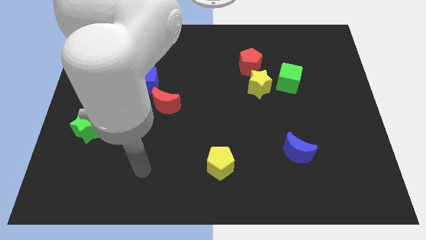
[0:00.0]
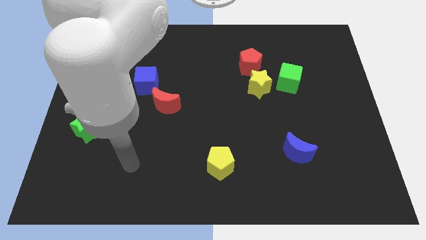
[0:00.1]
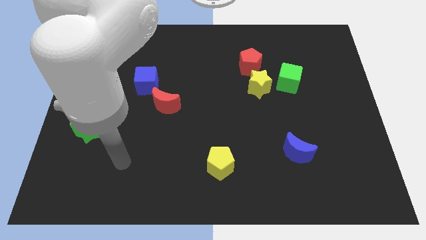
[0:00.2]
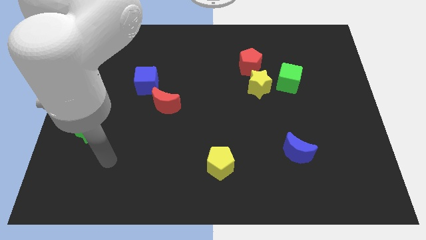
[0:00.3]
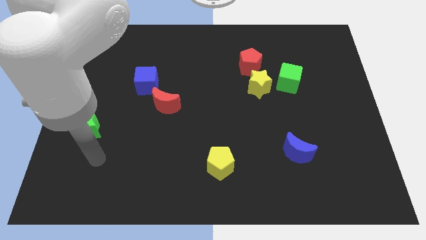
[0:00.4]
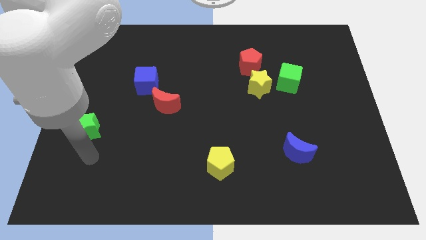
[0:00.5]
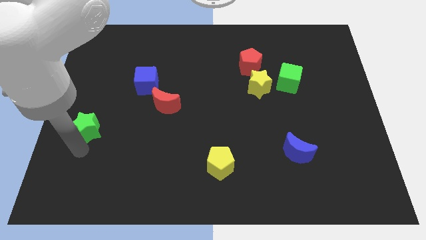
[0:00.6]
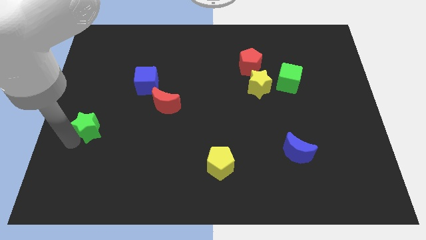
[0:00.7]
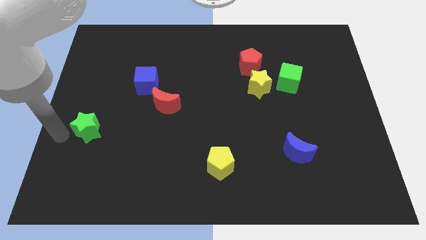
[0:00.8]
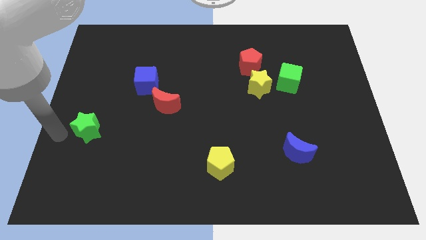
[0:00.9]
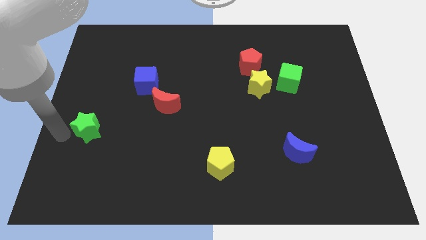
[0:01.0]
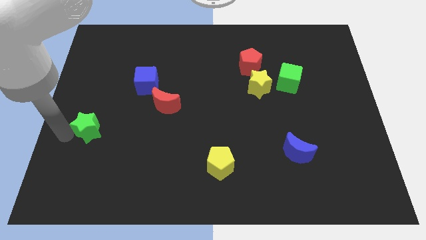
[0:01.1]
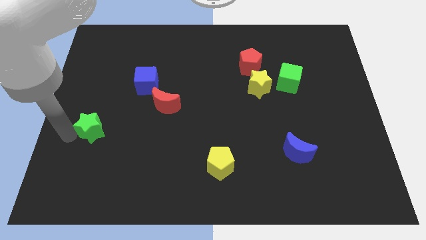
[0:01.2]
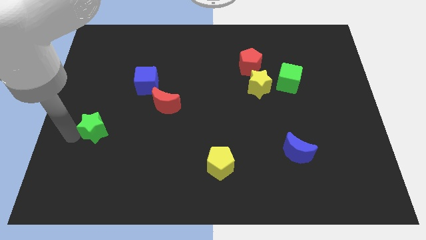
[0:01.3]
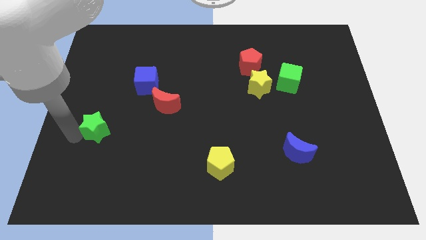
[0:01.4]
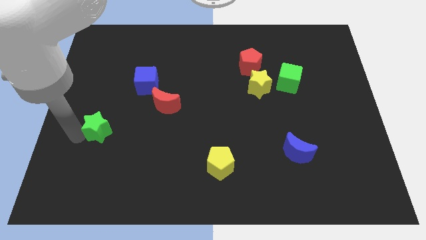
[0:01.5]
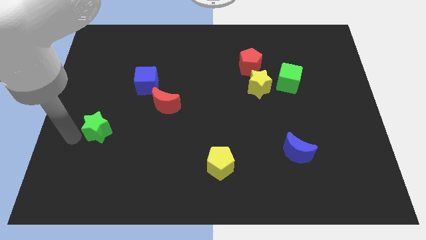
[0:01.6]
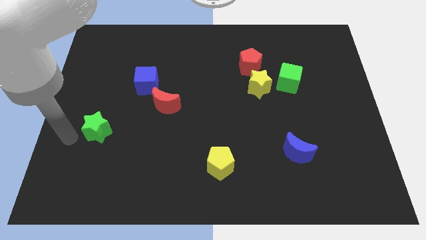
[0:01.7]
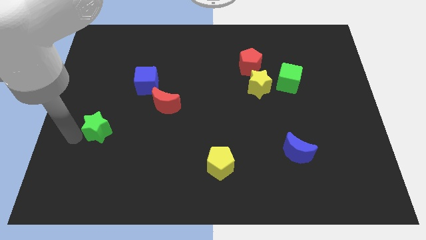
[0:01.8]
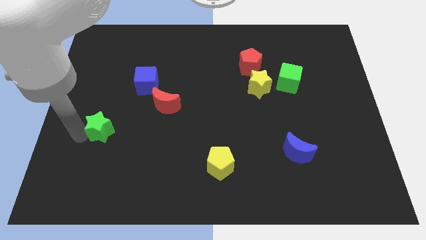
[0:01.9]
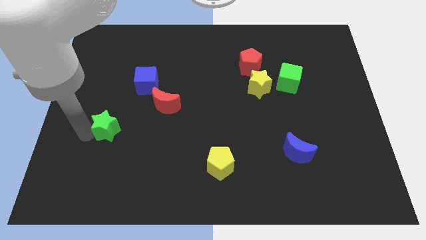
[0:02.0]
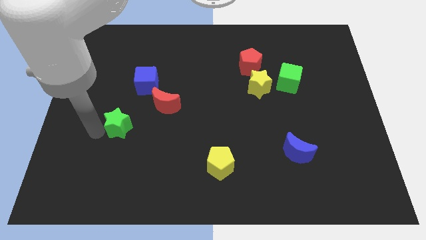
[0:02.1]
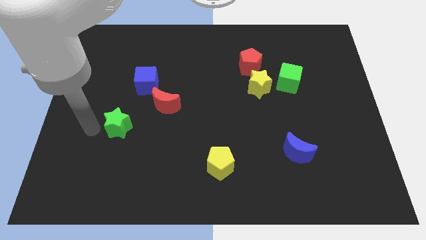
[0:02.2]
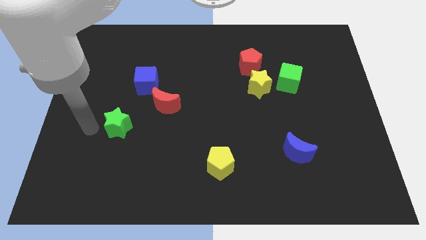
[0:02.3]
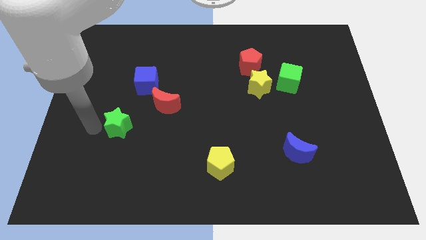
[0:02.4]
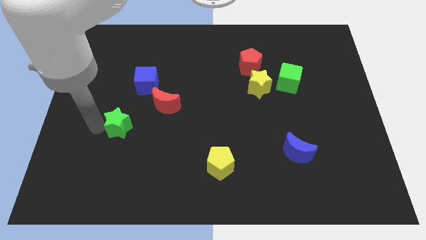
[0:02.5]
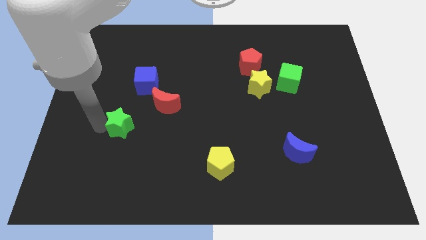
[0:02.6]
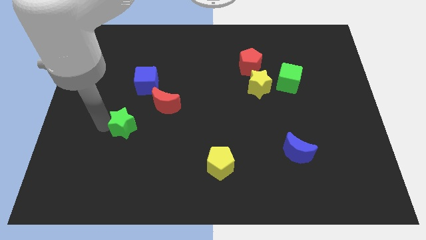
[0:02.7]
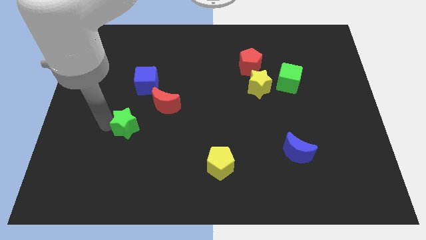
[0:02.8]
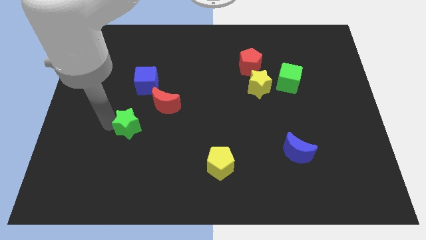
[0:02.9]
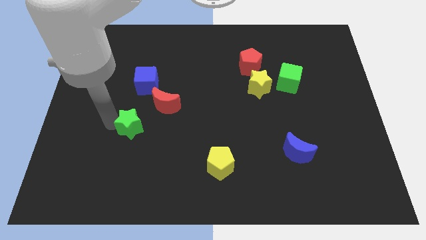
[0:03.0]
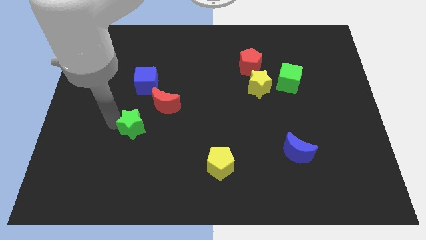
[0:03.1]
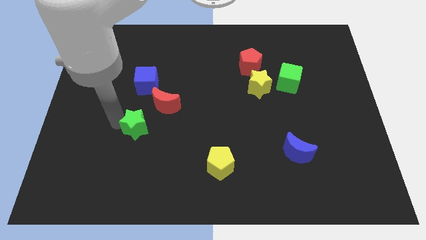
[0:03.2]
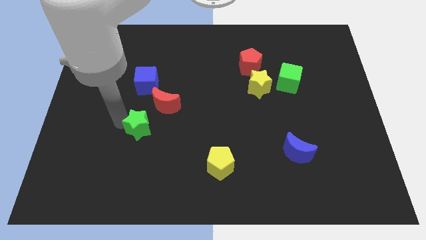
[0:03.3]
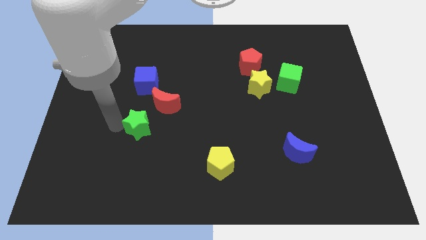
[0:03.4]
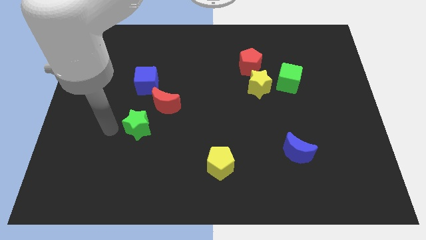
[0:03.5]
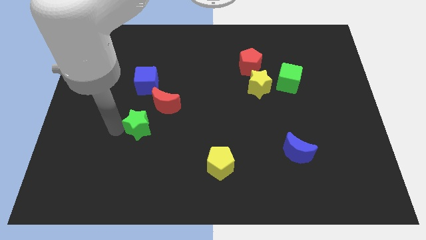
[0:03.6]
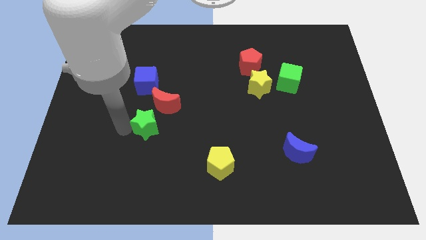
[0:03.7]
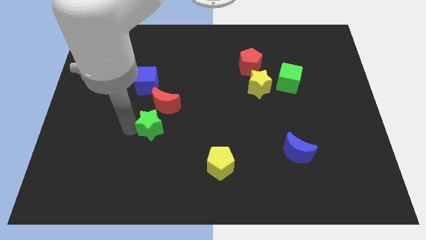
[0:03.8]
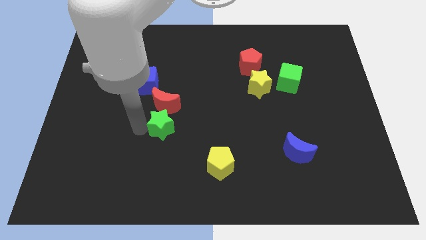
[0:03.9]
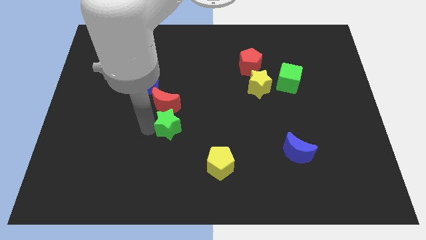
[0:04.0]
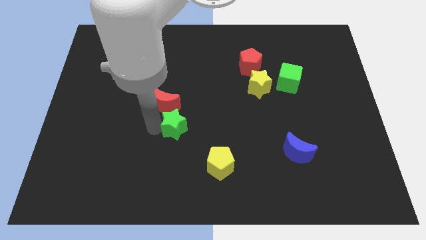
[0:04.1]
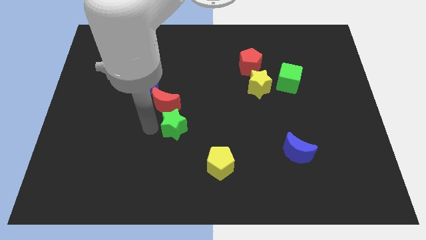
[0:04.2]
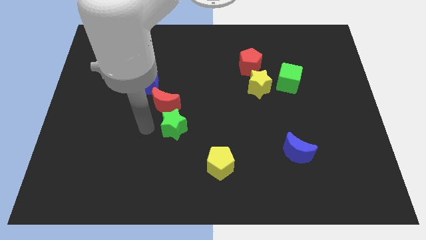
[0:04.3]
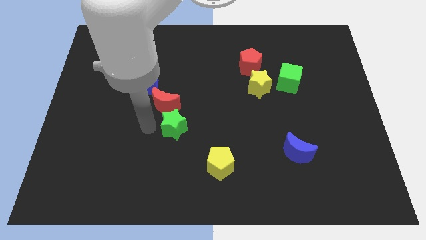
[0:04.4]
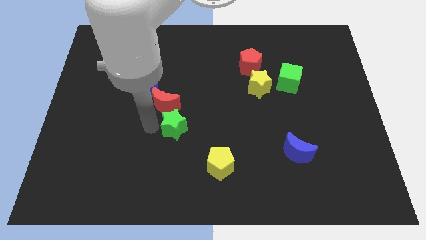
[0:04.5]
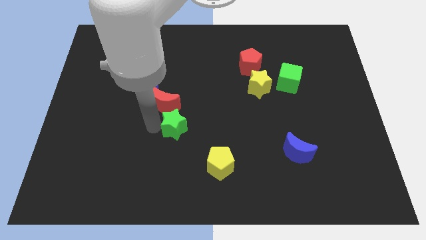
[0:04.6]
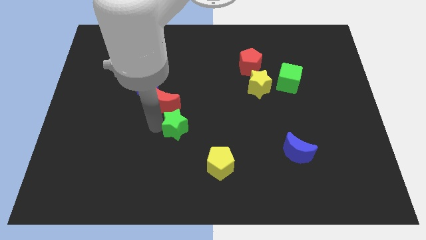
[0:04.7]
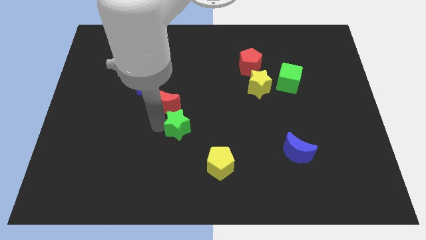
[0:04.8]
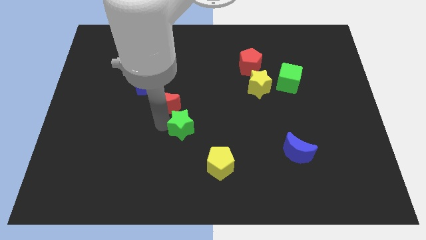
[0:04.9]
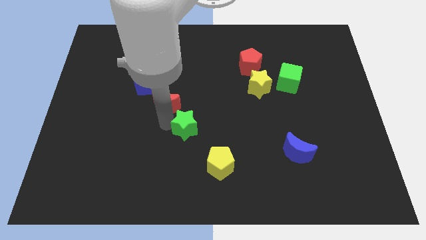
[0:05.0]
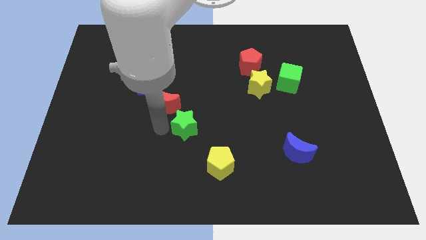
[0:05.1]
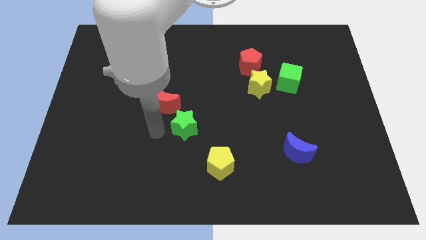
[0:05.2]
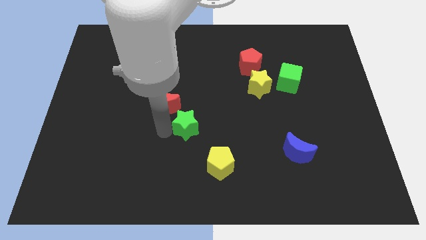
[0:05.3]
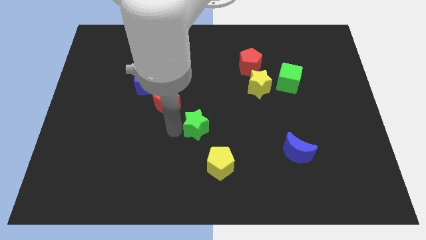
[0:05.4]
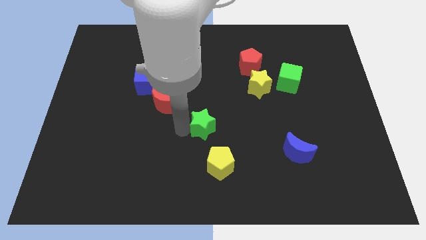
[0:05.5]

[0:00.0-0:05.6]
slide the green star above the yellow pentagon
